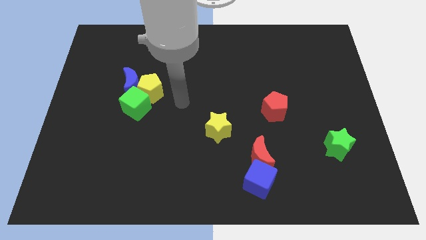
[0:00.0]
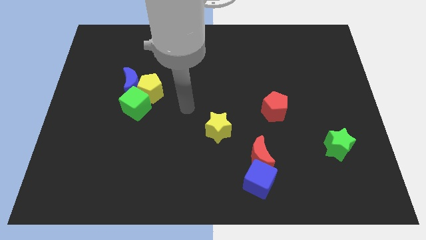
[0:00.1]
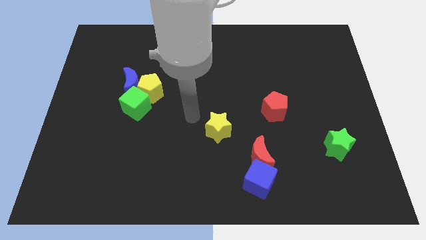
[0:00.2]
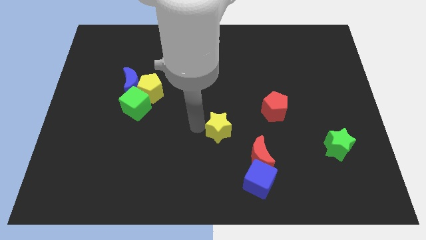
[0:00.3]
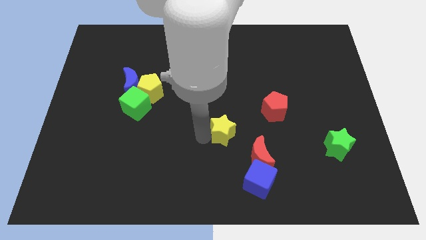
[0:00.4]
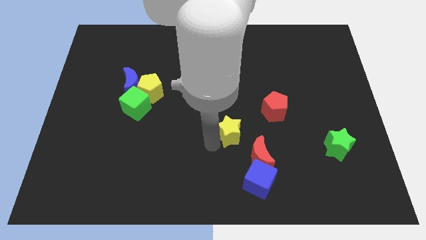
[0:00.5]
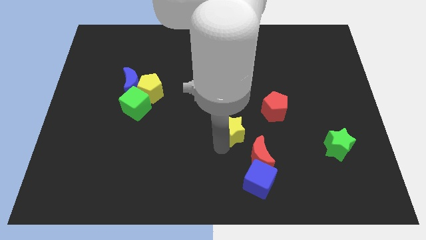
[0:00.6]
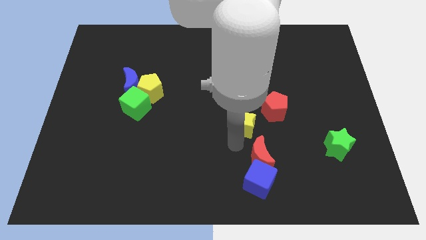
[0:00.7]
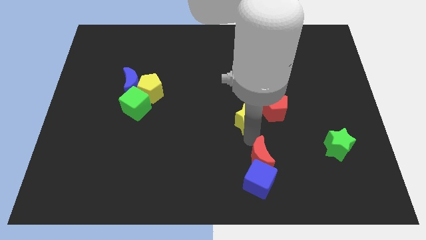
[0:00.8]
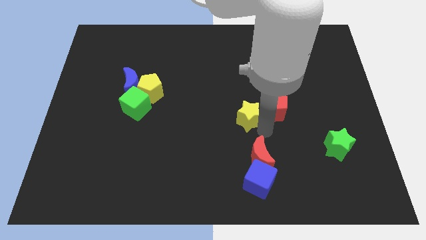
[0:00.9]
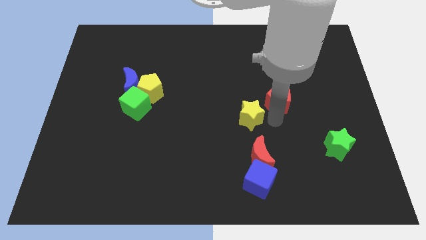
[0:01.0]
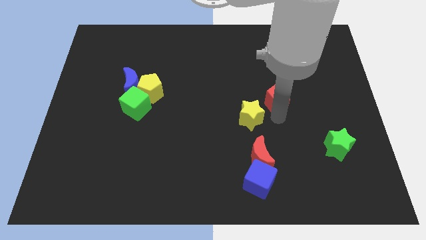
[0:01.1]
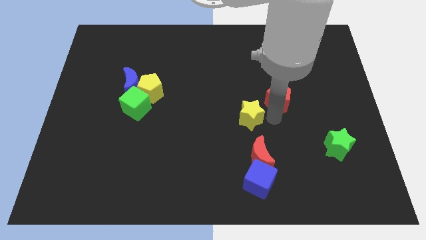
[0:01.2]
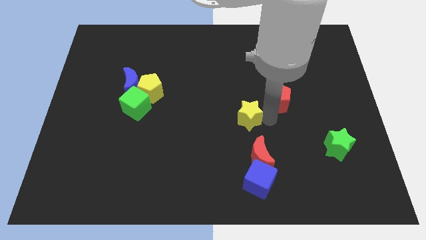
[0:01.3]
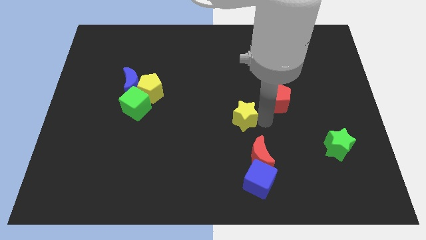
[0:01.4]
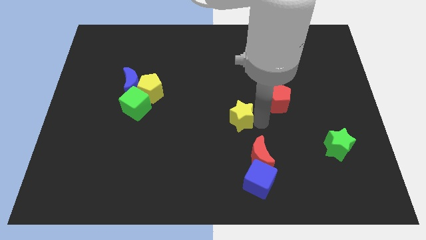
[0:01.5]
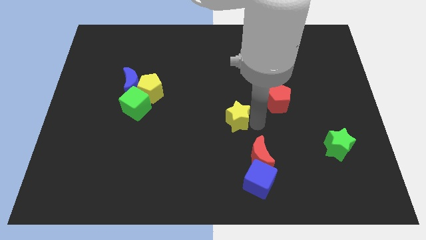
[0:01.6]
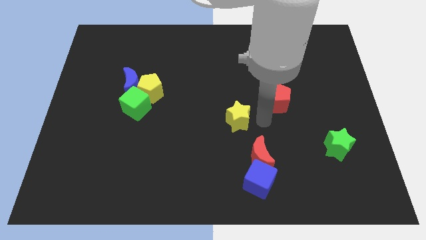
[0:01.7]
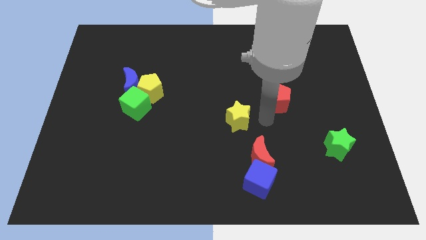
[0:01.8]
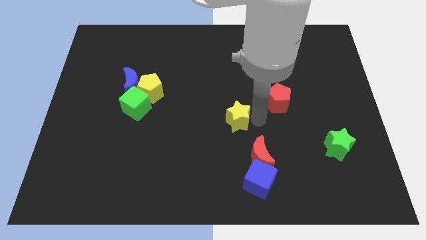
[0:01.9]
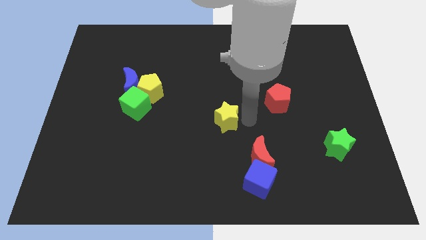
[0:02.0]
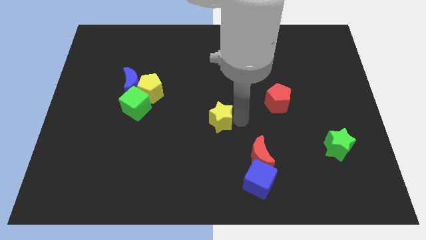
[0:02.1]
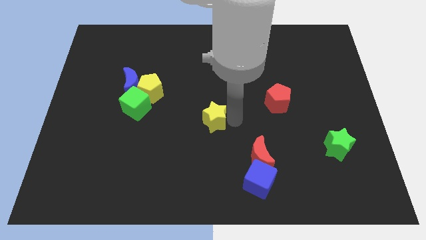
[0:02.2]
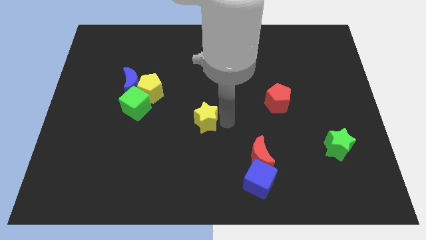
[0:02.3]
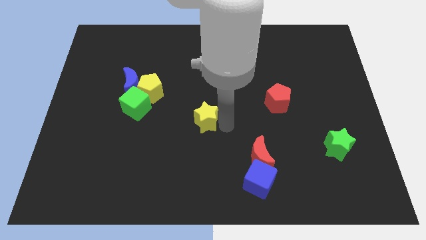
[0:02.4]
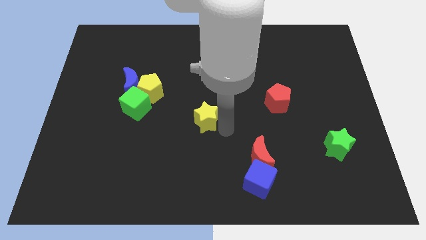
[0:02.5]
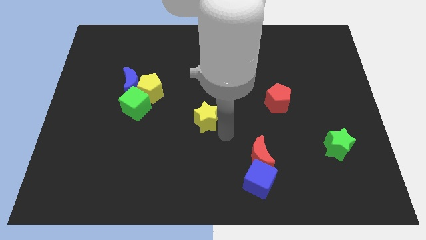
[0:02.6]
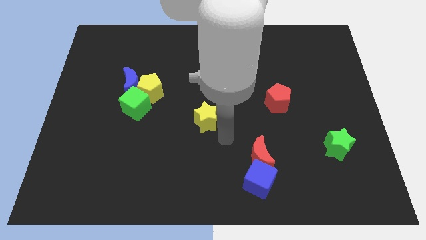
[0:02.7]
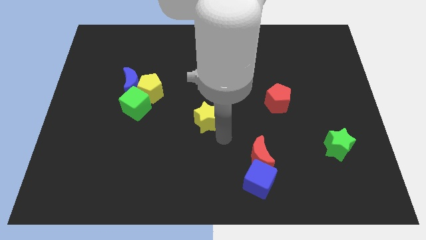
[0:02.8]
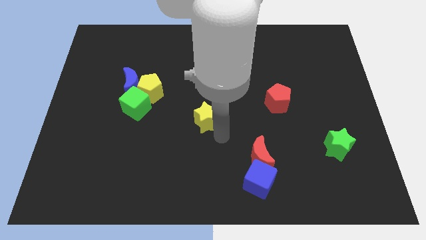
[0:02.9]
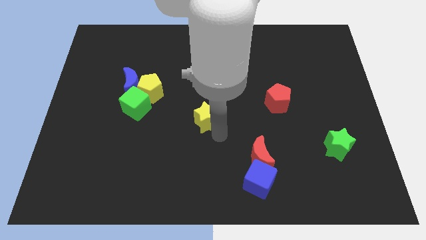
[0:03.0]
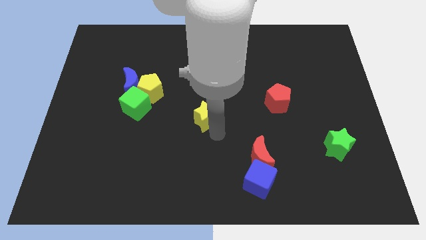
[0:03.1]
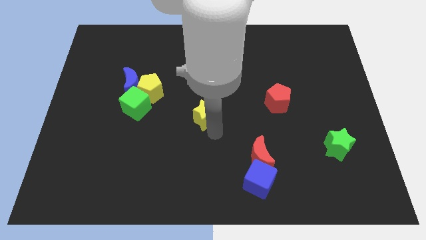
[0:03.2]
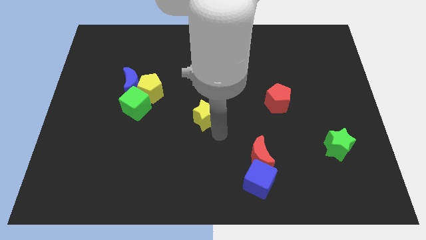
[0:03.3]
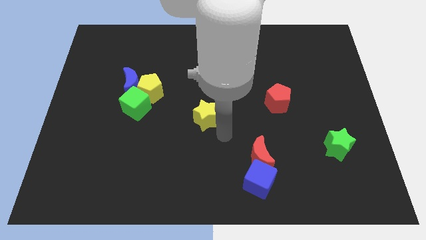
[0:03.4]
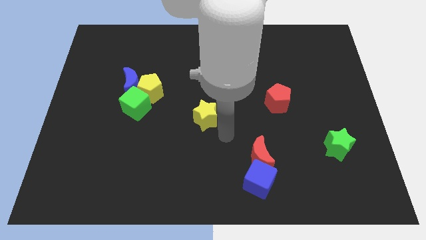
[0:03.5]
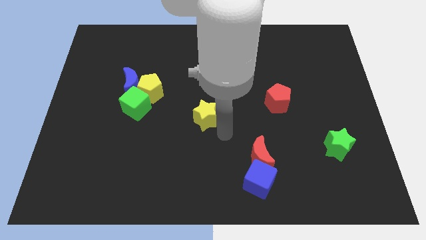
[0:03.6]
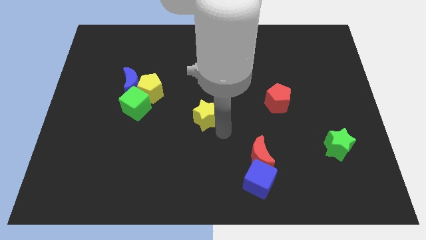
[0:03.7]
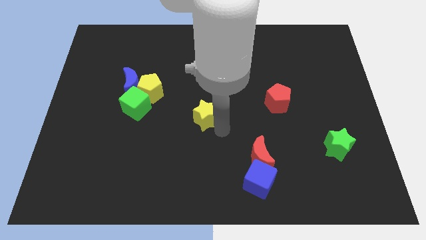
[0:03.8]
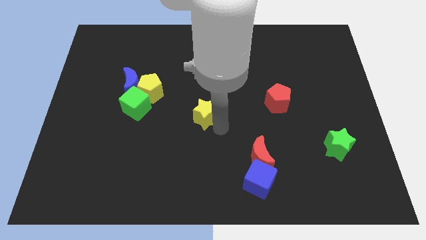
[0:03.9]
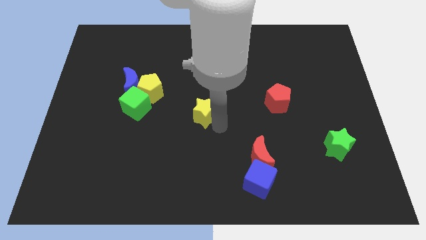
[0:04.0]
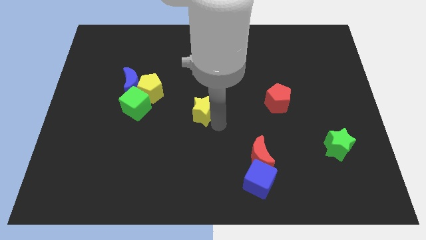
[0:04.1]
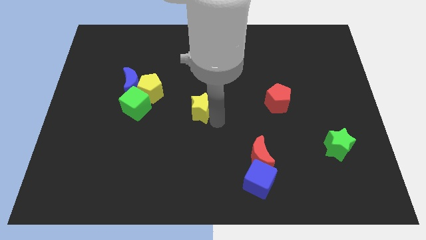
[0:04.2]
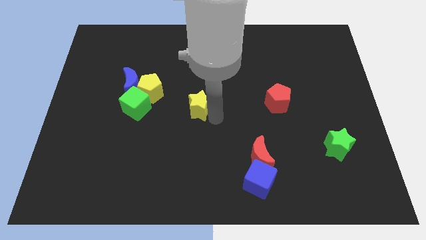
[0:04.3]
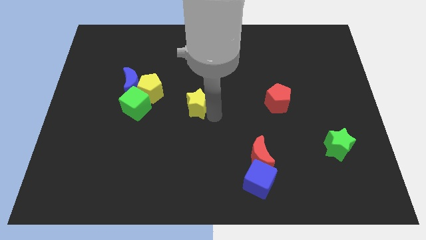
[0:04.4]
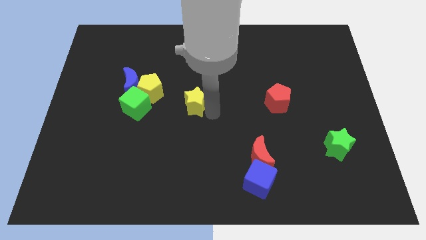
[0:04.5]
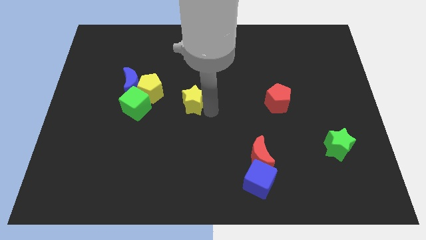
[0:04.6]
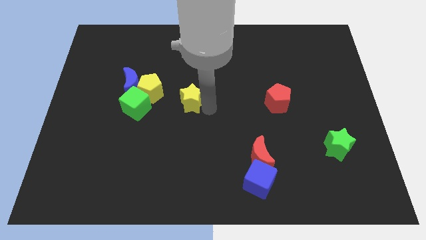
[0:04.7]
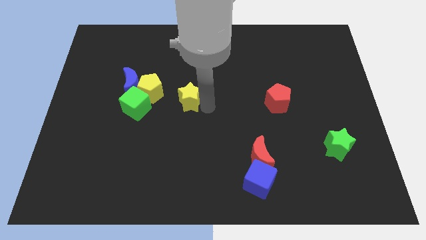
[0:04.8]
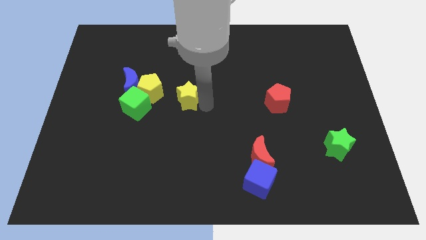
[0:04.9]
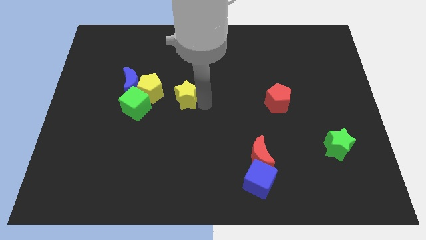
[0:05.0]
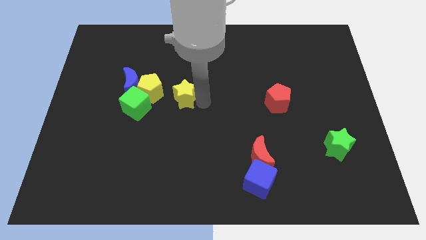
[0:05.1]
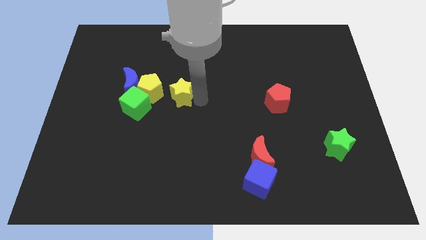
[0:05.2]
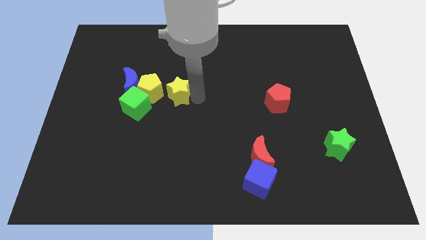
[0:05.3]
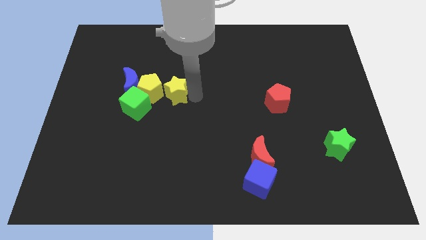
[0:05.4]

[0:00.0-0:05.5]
slide the yellow star close to the yellow pentagon

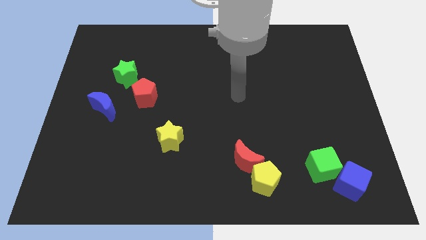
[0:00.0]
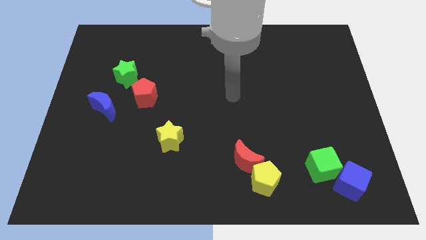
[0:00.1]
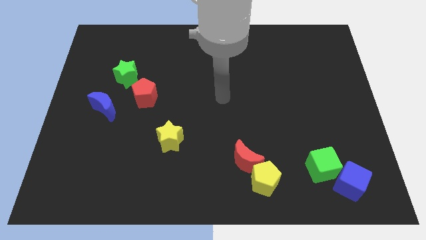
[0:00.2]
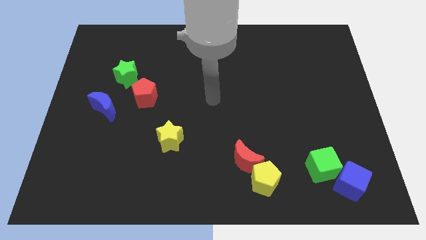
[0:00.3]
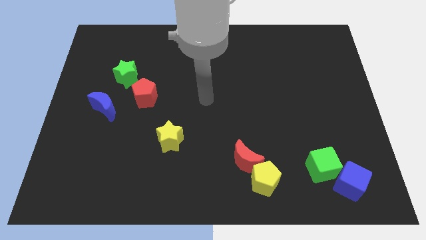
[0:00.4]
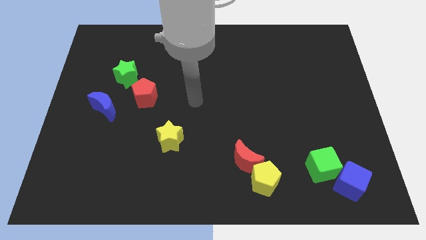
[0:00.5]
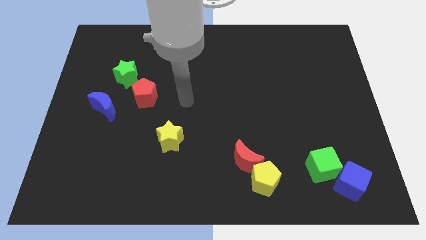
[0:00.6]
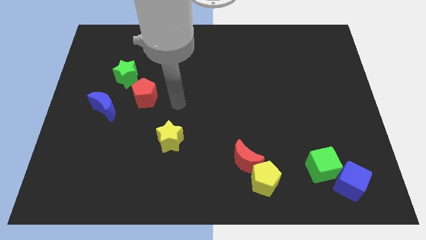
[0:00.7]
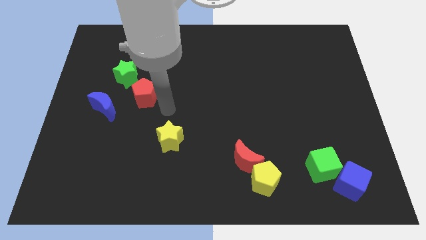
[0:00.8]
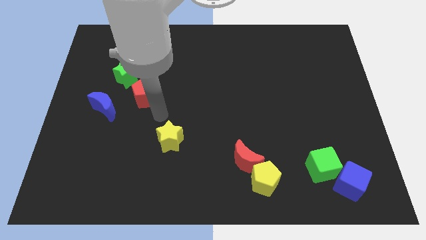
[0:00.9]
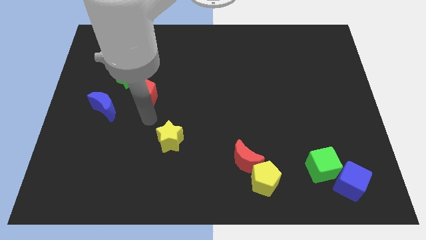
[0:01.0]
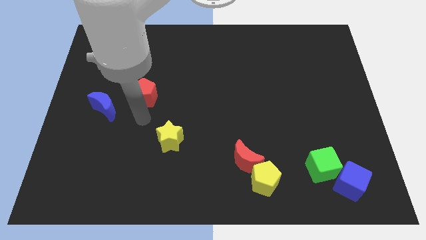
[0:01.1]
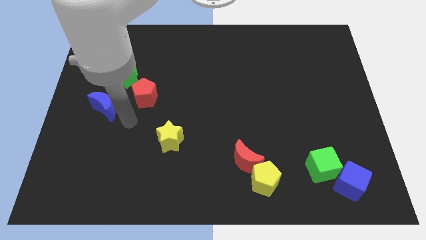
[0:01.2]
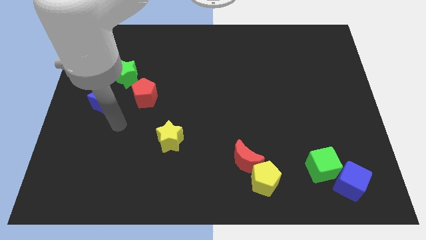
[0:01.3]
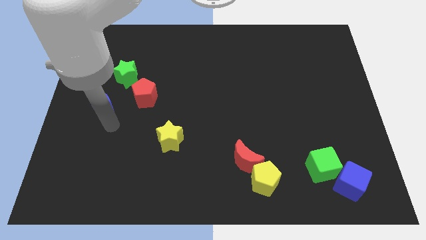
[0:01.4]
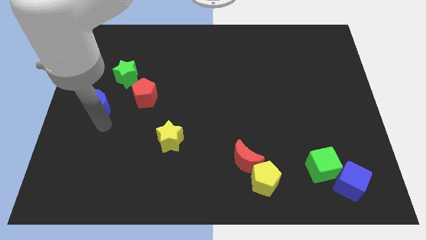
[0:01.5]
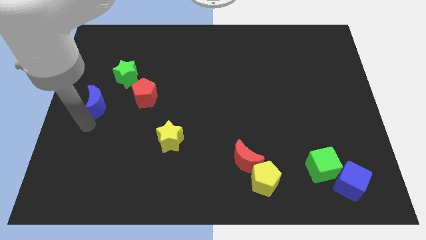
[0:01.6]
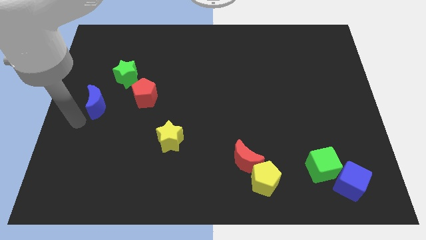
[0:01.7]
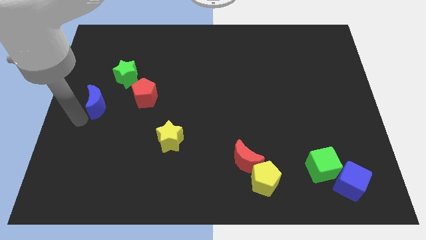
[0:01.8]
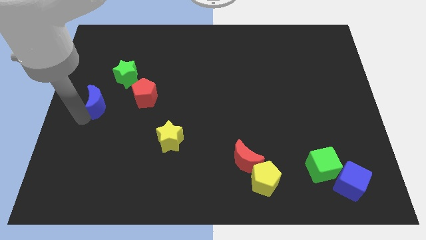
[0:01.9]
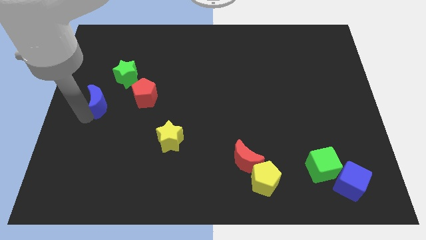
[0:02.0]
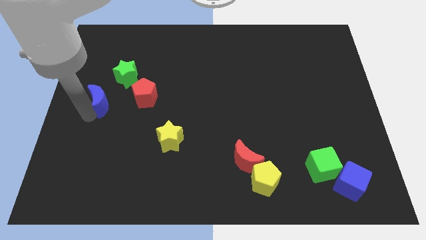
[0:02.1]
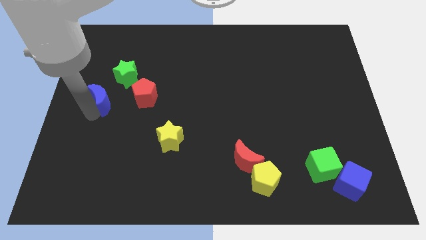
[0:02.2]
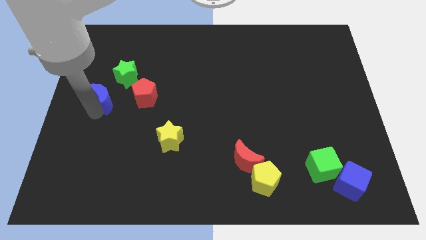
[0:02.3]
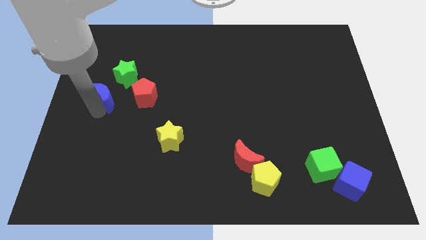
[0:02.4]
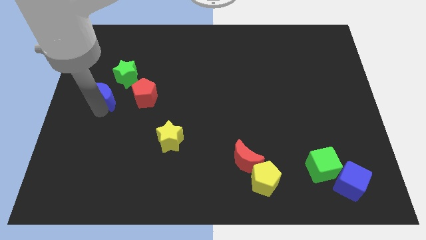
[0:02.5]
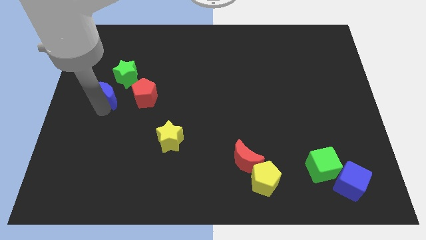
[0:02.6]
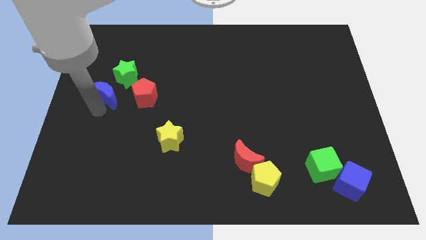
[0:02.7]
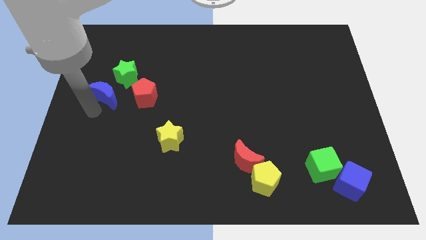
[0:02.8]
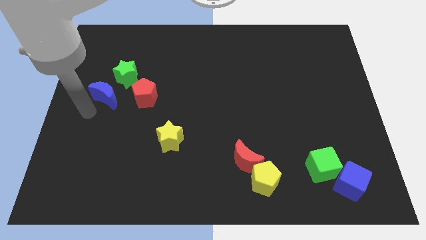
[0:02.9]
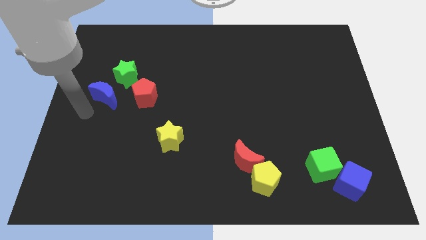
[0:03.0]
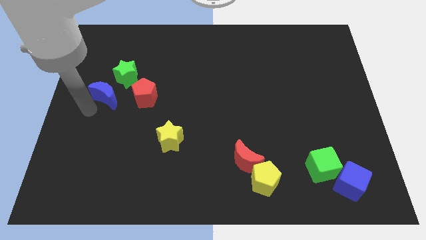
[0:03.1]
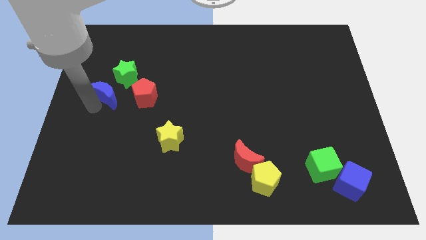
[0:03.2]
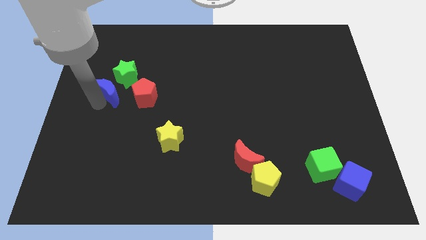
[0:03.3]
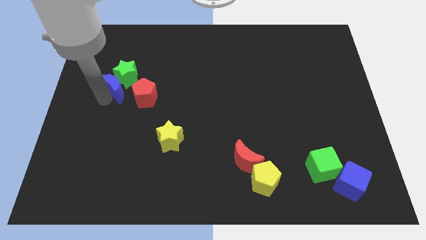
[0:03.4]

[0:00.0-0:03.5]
slide the blue moon close to the green star
